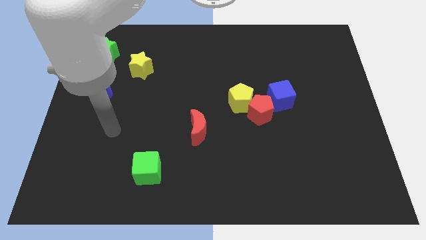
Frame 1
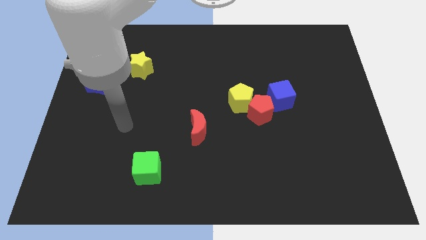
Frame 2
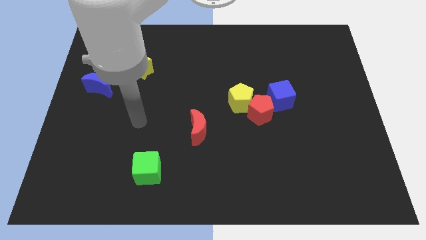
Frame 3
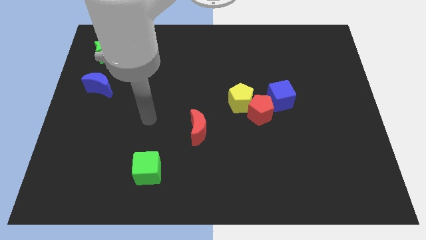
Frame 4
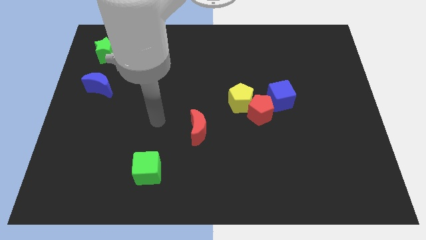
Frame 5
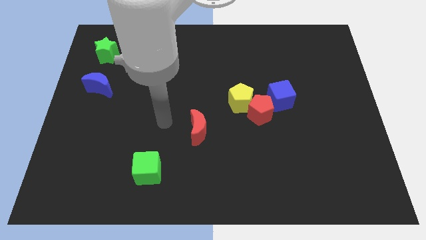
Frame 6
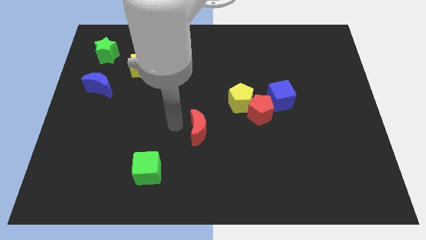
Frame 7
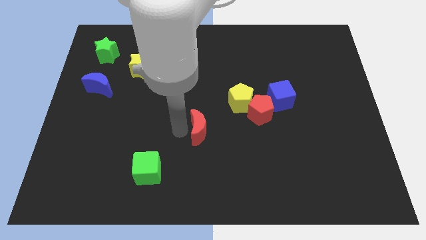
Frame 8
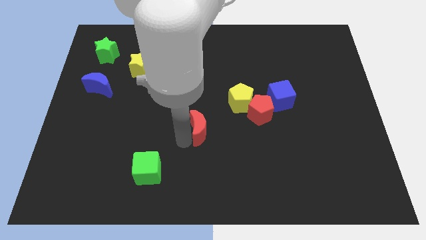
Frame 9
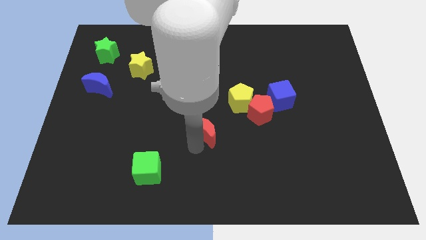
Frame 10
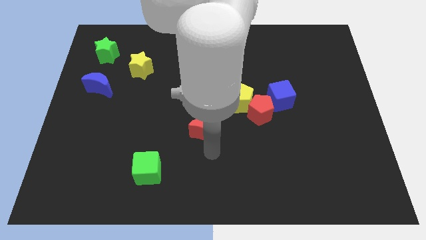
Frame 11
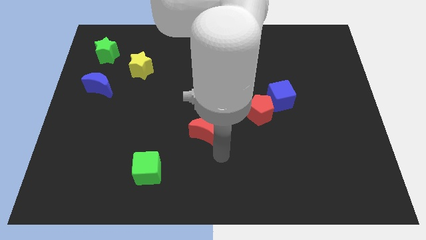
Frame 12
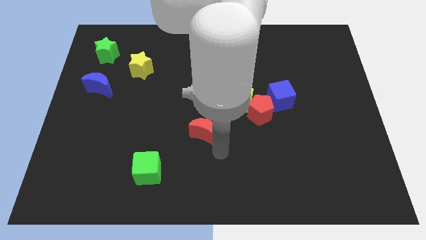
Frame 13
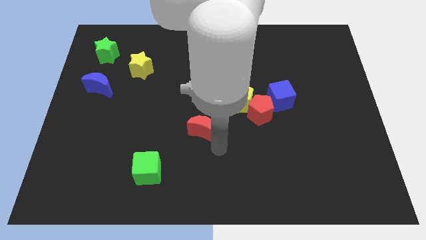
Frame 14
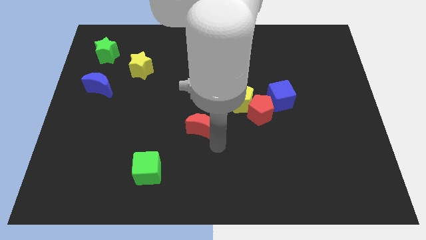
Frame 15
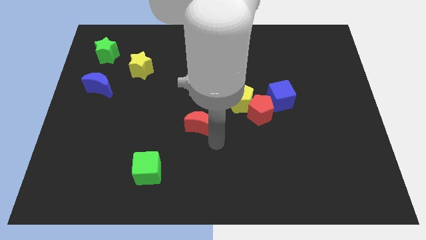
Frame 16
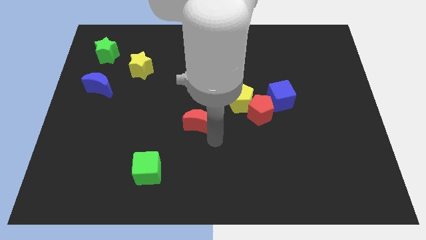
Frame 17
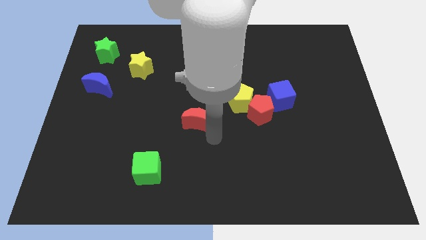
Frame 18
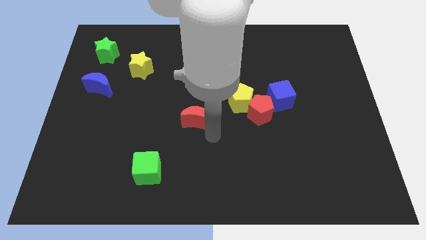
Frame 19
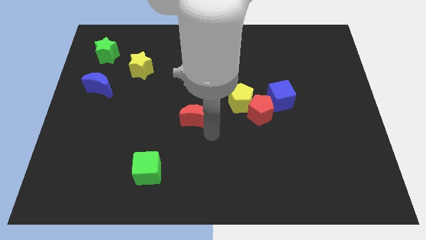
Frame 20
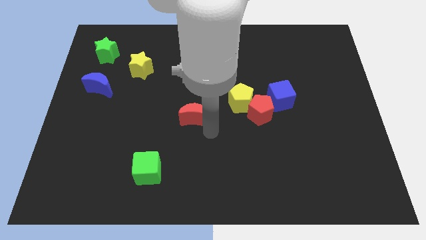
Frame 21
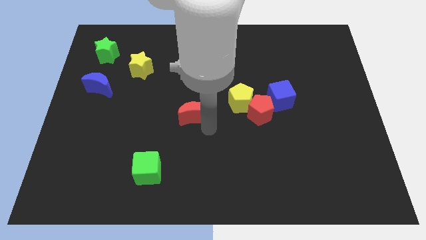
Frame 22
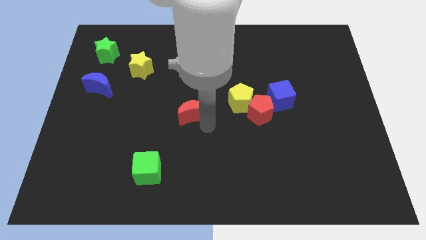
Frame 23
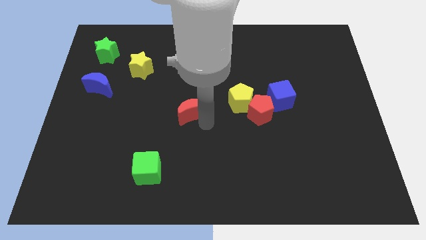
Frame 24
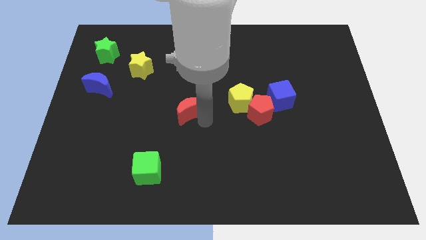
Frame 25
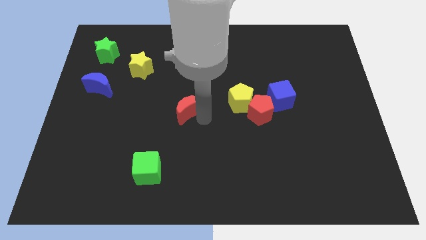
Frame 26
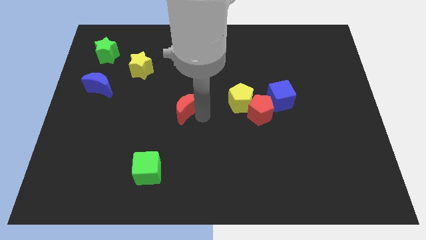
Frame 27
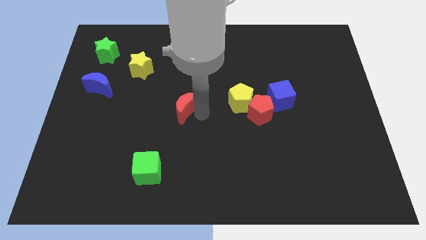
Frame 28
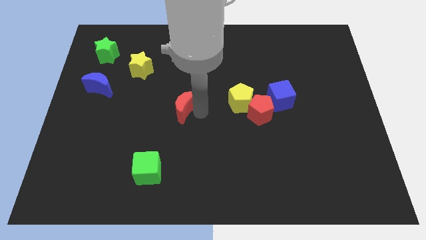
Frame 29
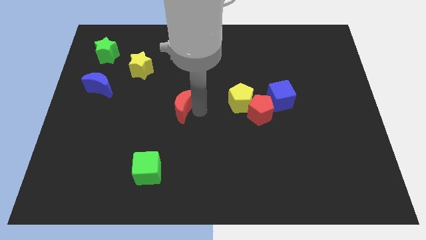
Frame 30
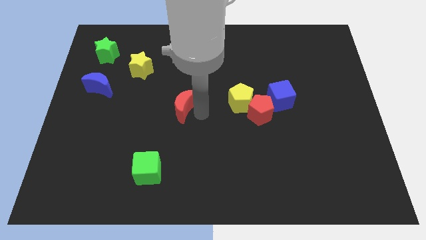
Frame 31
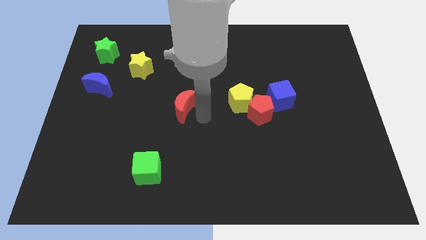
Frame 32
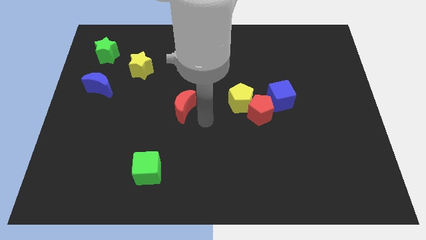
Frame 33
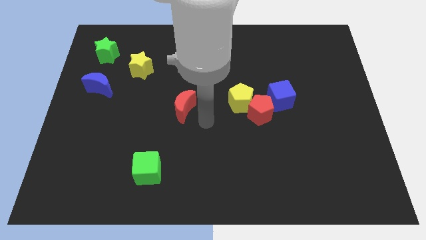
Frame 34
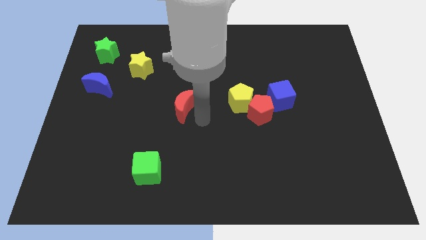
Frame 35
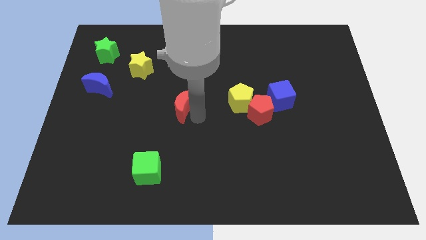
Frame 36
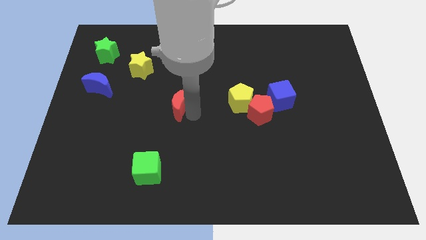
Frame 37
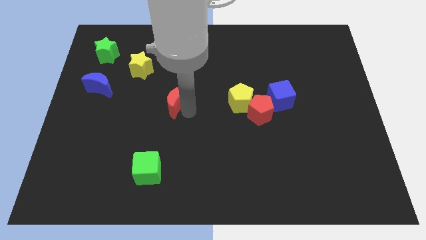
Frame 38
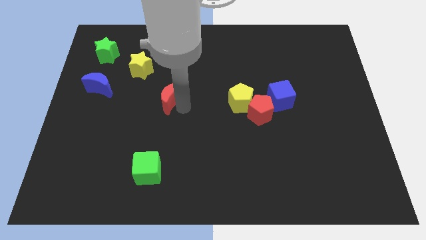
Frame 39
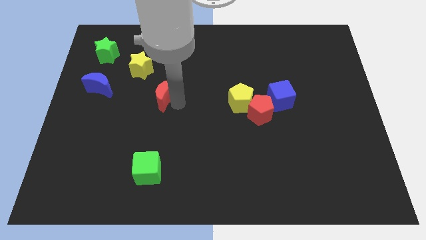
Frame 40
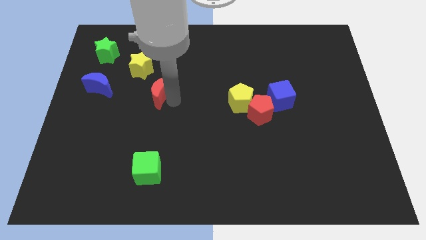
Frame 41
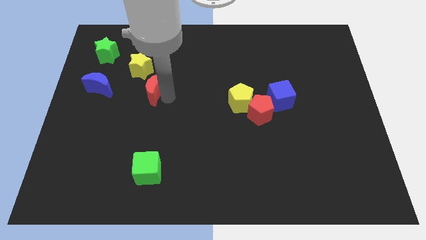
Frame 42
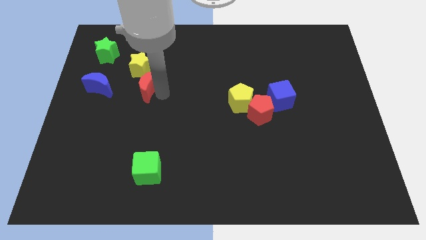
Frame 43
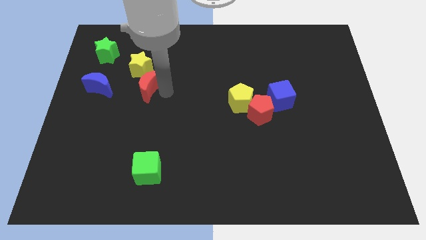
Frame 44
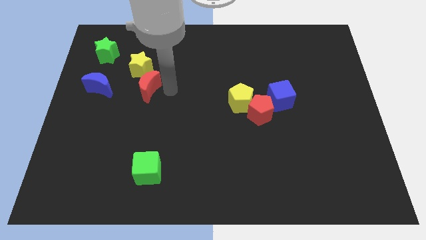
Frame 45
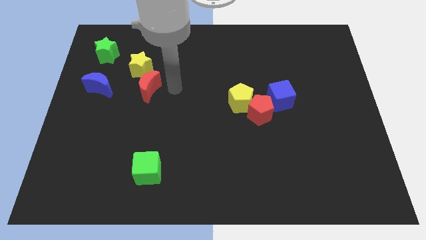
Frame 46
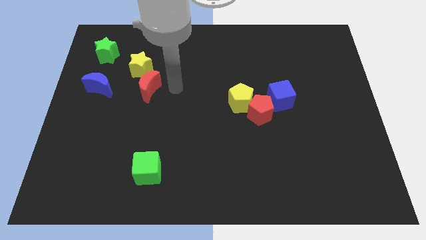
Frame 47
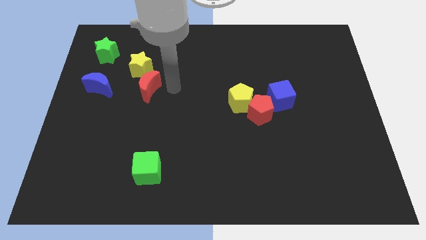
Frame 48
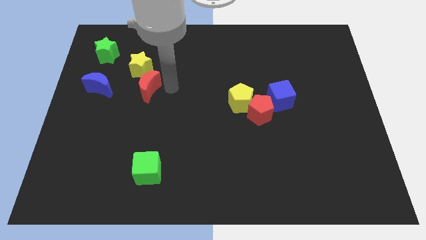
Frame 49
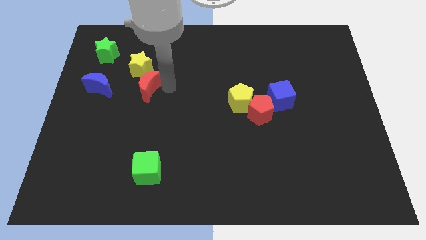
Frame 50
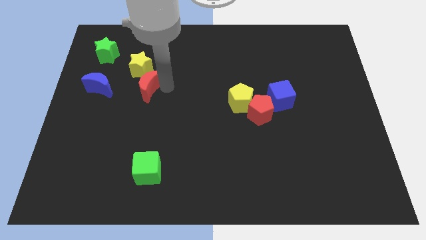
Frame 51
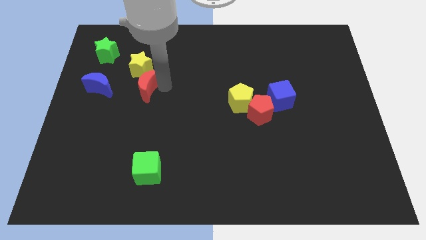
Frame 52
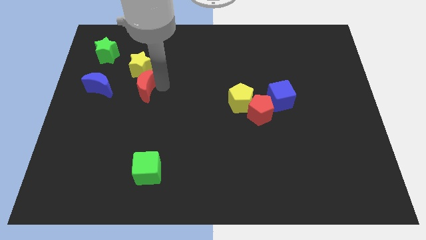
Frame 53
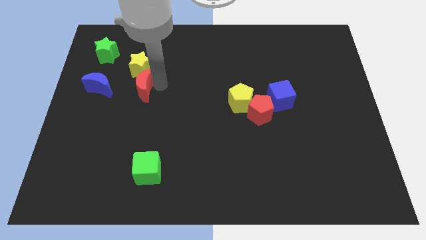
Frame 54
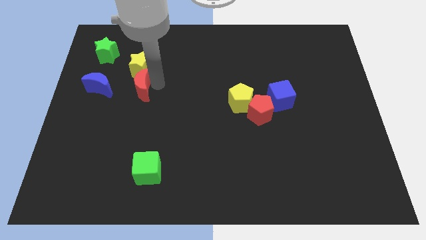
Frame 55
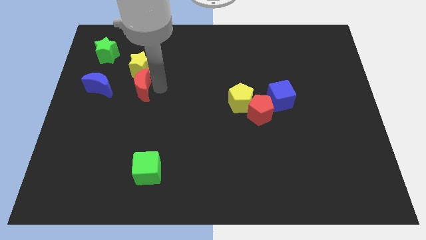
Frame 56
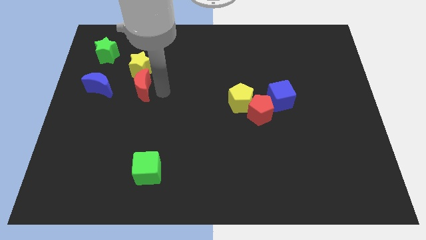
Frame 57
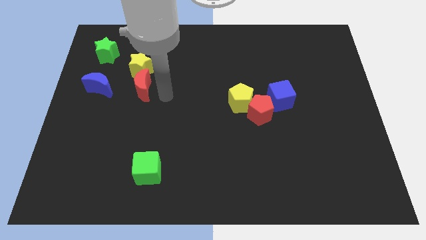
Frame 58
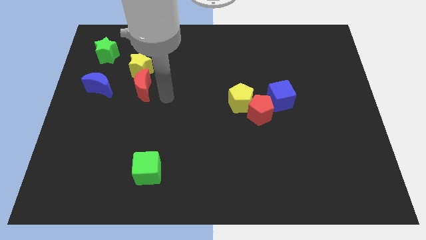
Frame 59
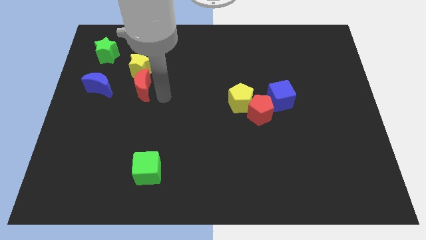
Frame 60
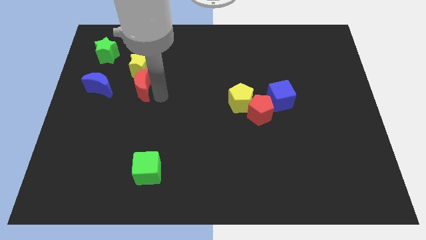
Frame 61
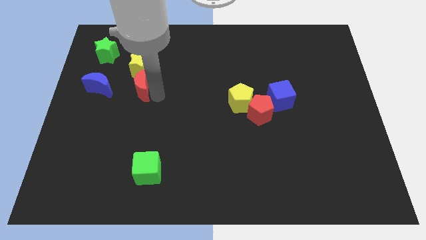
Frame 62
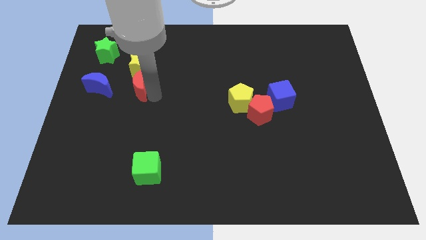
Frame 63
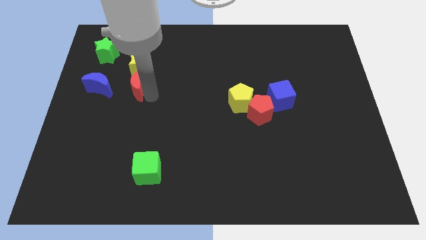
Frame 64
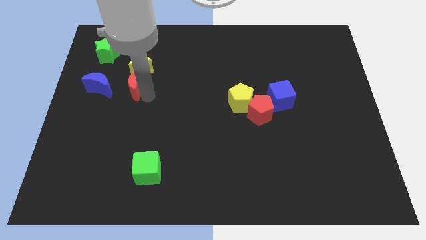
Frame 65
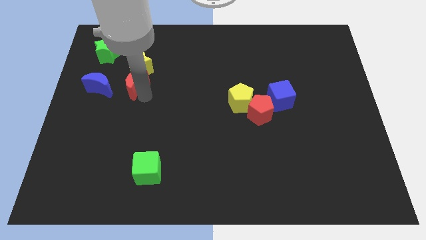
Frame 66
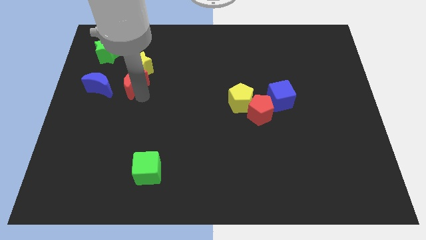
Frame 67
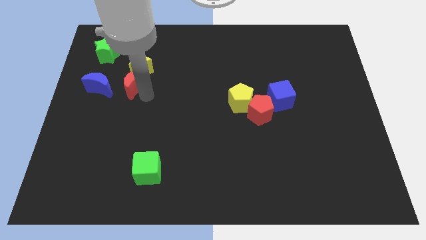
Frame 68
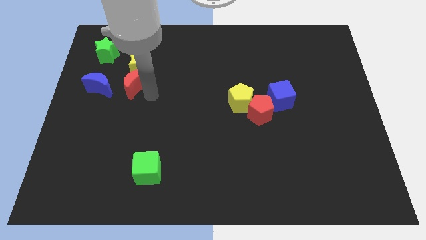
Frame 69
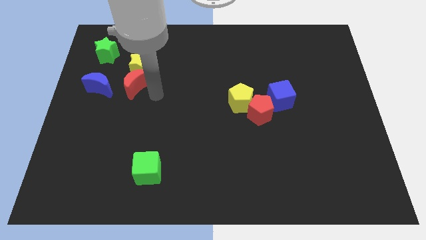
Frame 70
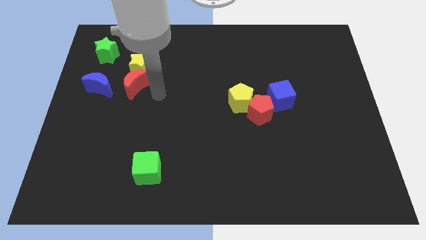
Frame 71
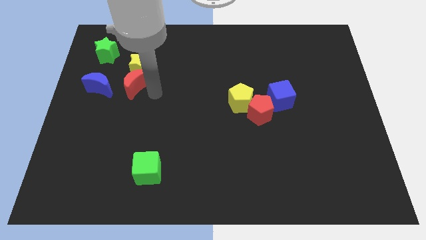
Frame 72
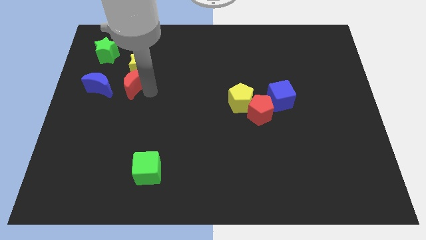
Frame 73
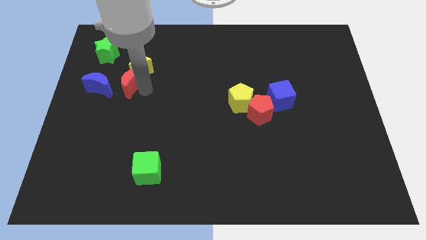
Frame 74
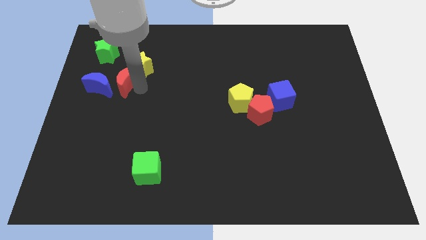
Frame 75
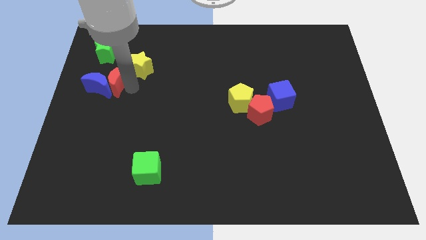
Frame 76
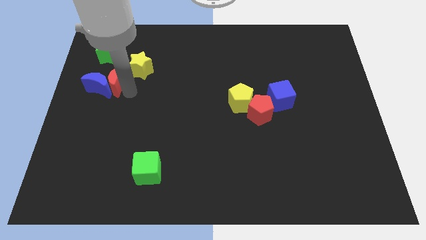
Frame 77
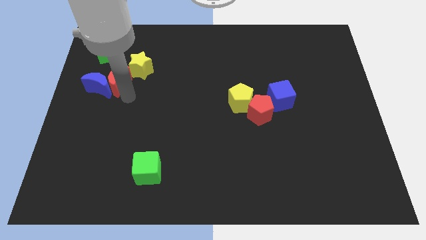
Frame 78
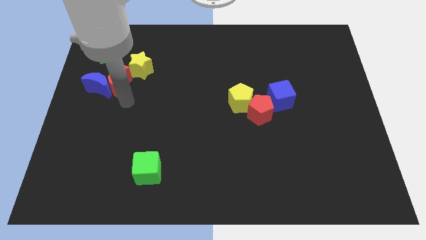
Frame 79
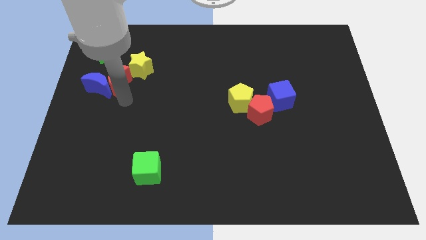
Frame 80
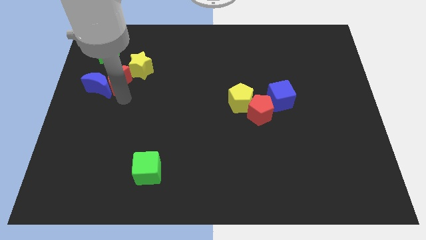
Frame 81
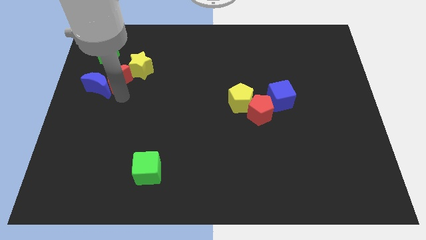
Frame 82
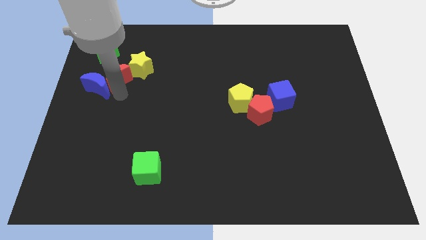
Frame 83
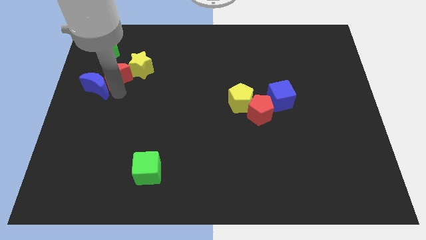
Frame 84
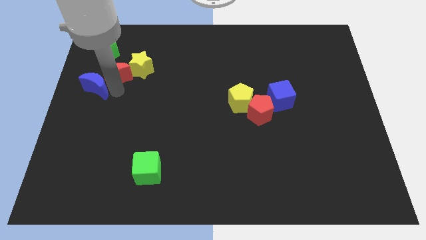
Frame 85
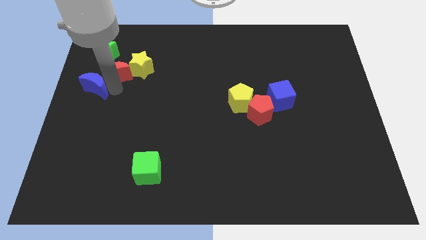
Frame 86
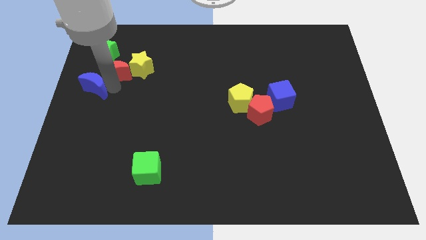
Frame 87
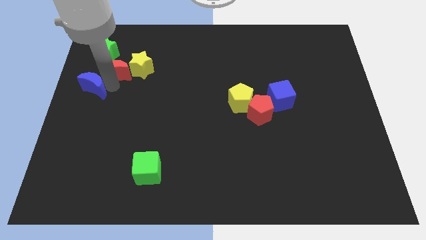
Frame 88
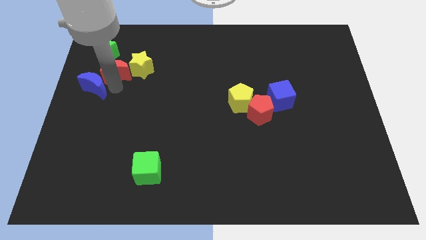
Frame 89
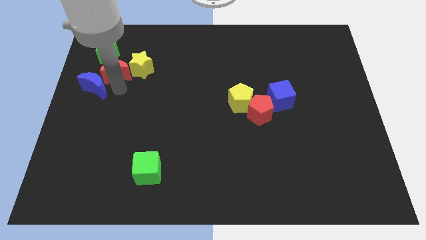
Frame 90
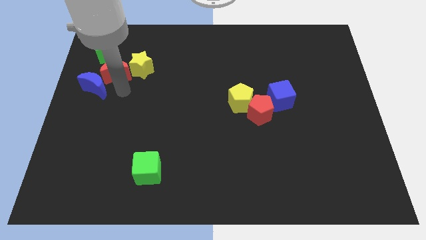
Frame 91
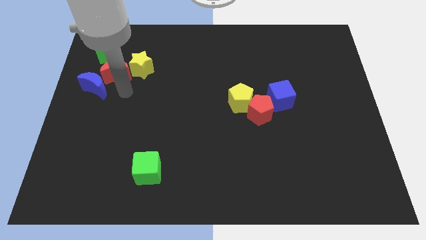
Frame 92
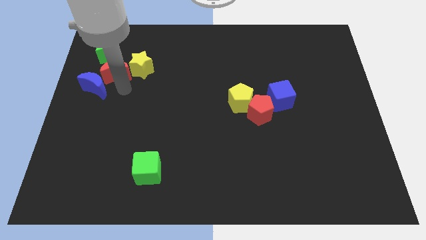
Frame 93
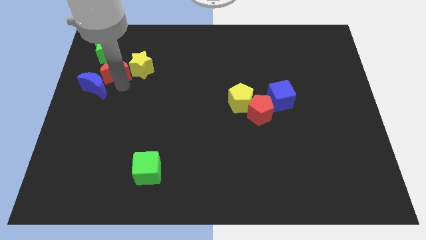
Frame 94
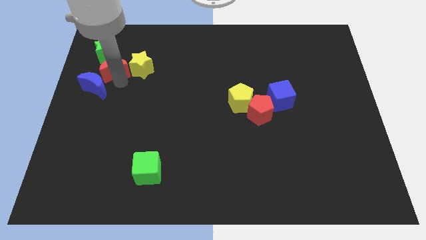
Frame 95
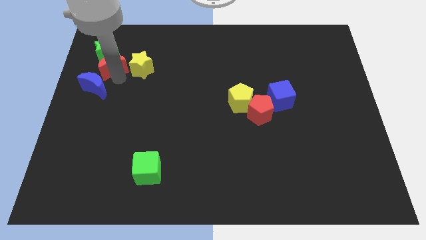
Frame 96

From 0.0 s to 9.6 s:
put the red moon to the green star
